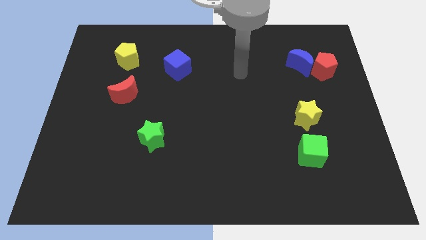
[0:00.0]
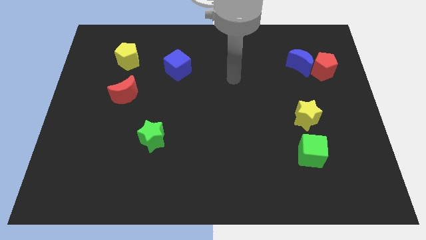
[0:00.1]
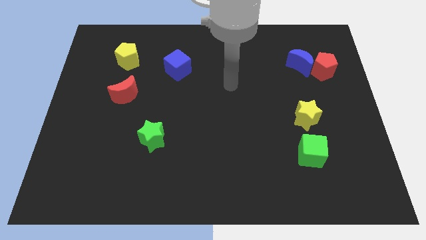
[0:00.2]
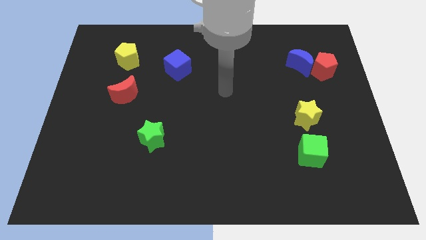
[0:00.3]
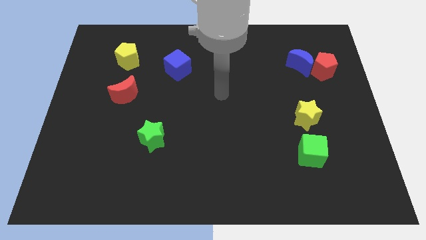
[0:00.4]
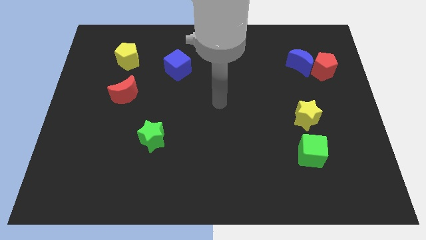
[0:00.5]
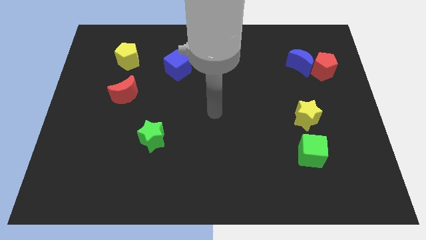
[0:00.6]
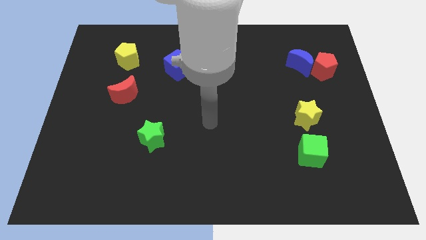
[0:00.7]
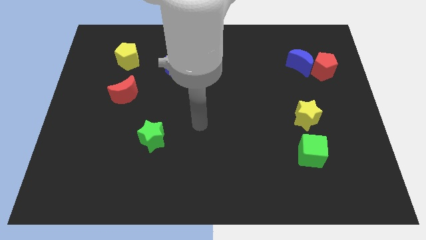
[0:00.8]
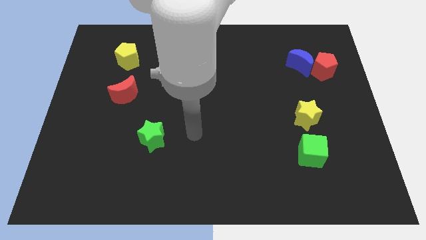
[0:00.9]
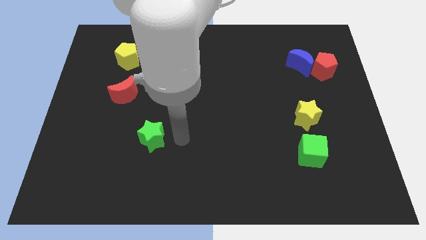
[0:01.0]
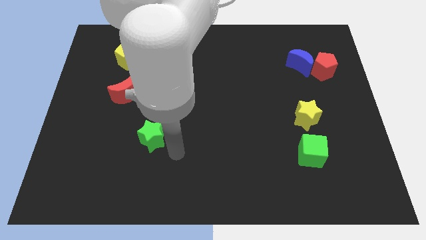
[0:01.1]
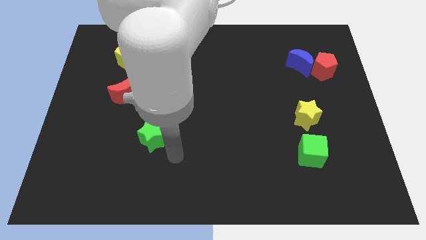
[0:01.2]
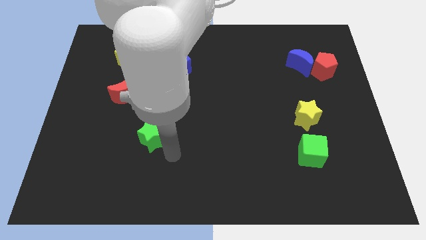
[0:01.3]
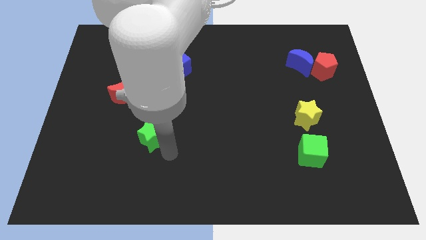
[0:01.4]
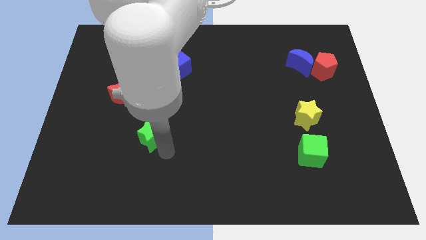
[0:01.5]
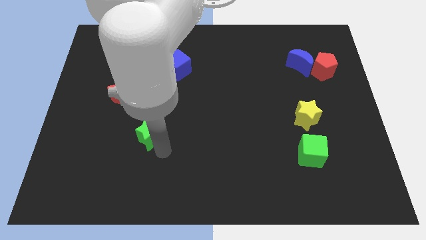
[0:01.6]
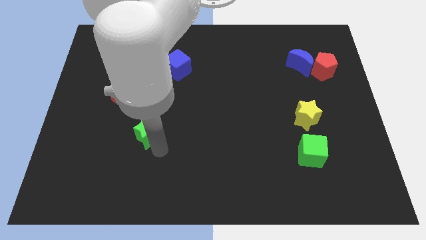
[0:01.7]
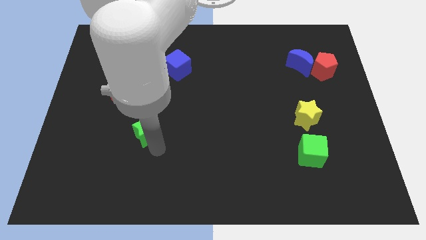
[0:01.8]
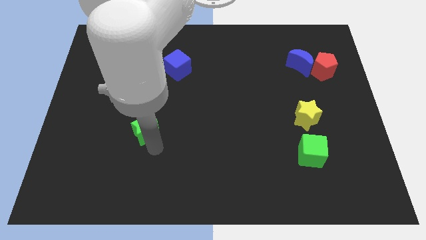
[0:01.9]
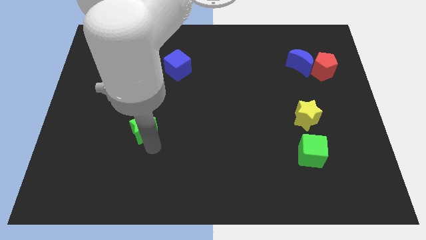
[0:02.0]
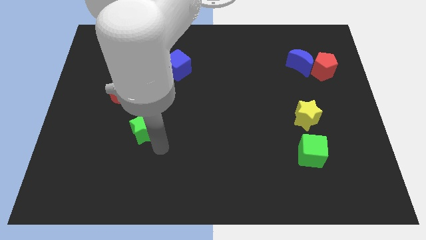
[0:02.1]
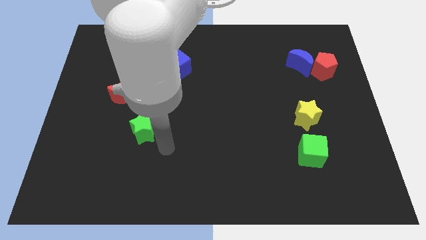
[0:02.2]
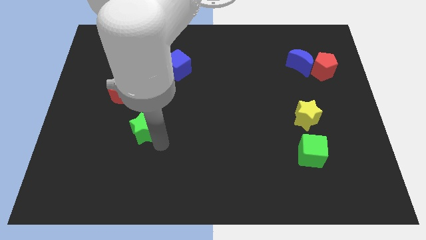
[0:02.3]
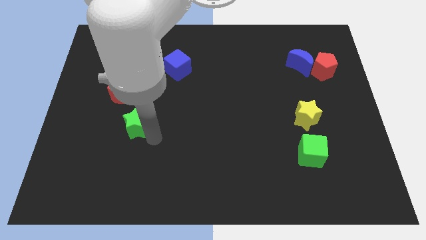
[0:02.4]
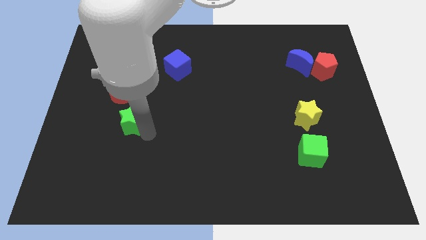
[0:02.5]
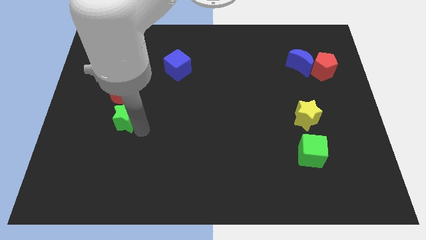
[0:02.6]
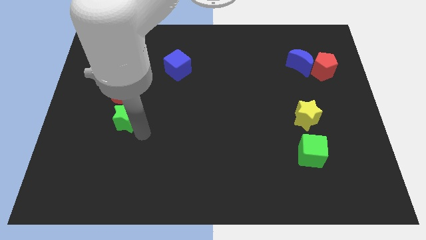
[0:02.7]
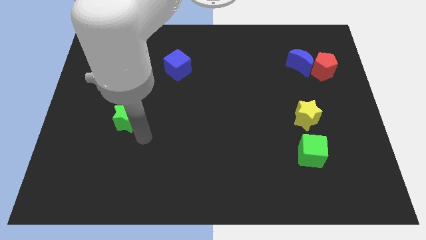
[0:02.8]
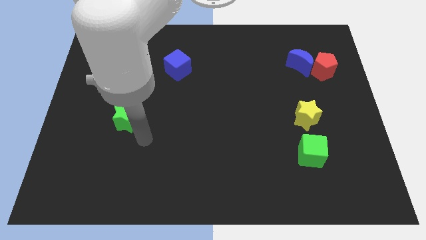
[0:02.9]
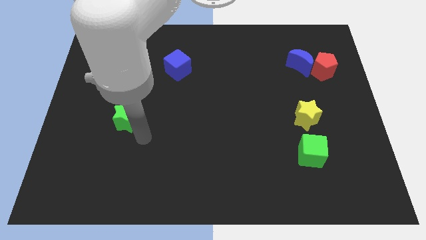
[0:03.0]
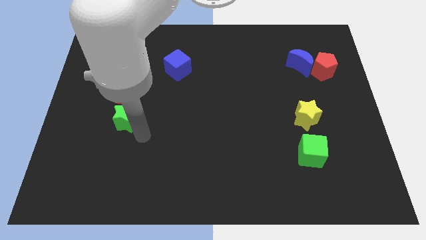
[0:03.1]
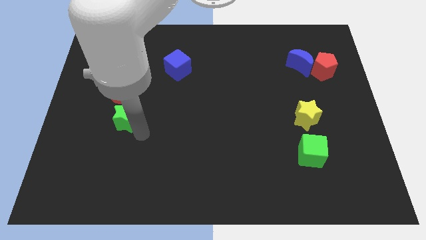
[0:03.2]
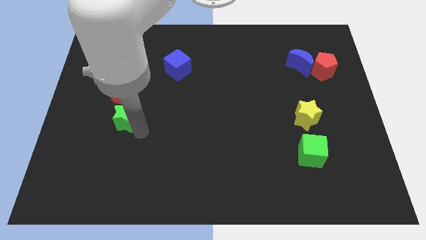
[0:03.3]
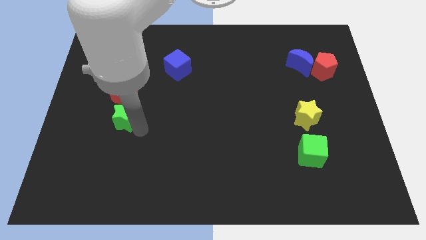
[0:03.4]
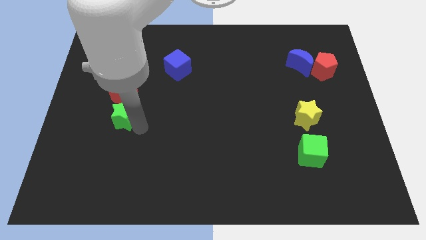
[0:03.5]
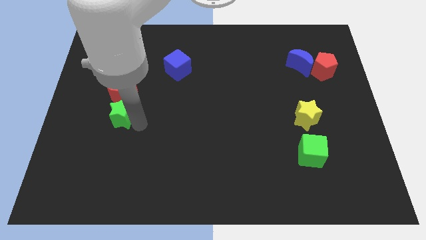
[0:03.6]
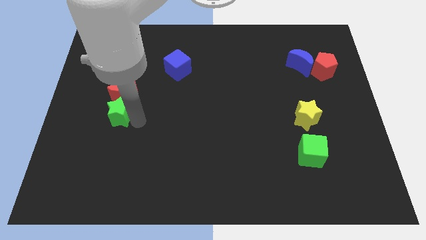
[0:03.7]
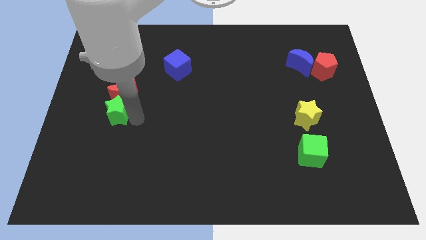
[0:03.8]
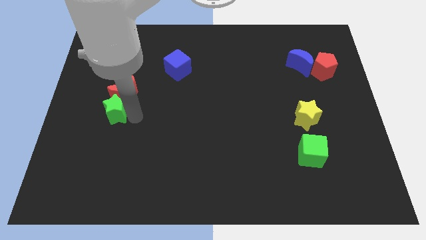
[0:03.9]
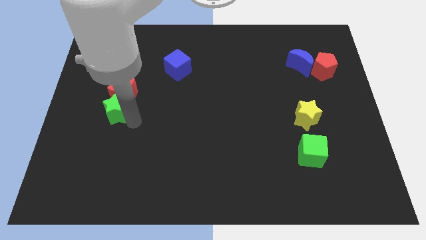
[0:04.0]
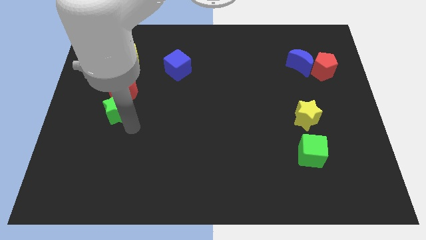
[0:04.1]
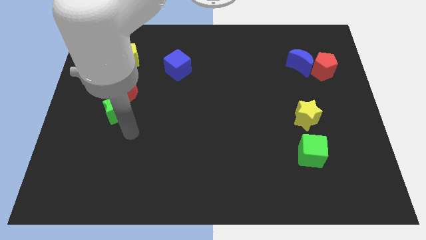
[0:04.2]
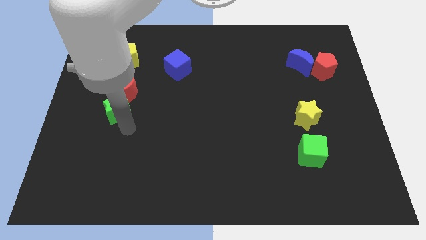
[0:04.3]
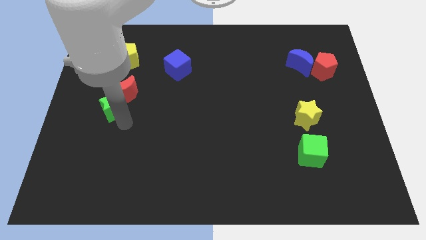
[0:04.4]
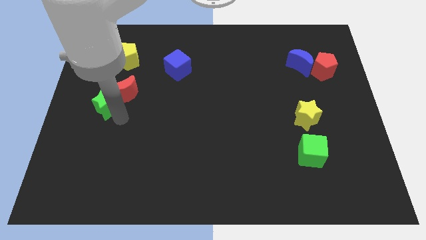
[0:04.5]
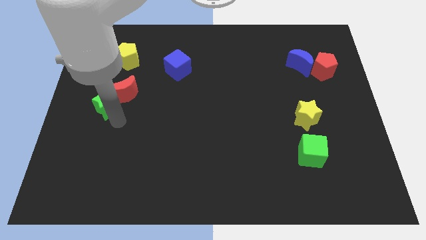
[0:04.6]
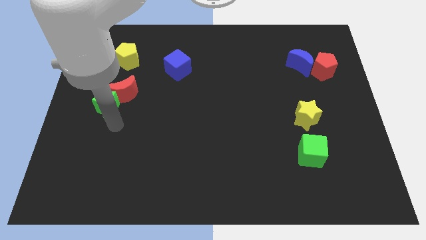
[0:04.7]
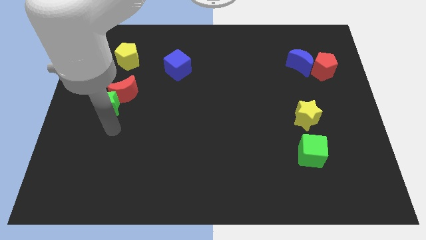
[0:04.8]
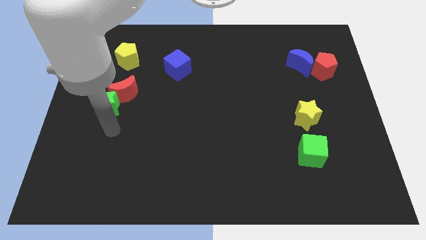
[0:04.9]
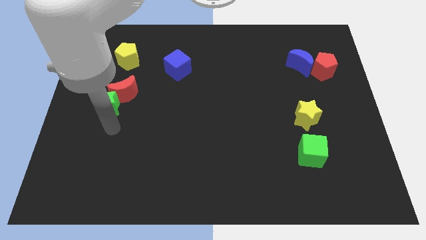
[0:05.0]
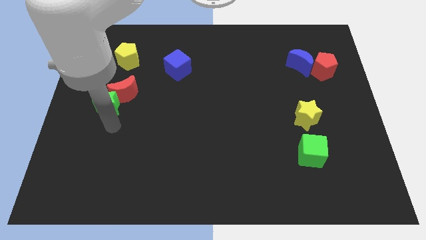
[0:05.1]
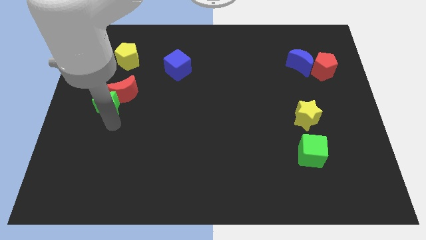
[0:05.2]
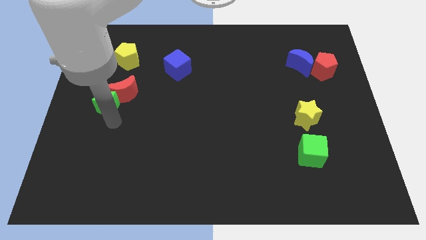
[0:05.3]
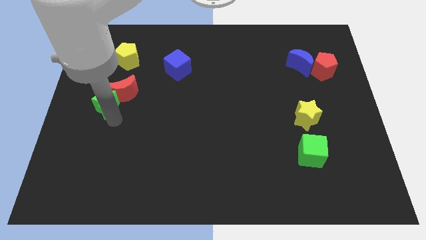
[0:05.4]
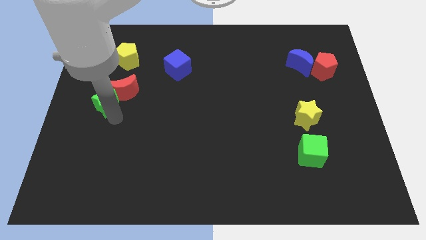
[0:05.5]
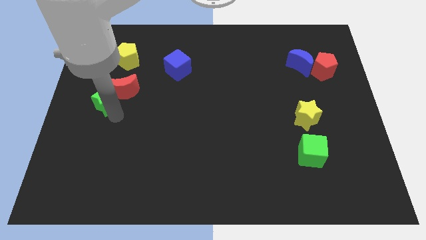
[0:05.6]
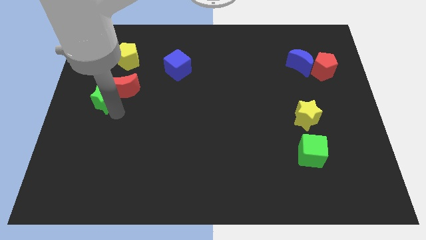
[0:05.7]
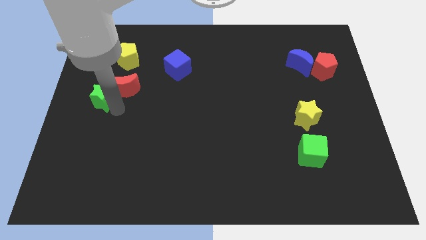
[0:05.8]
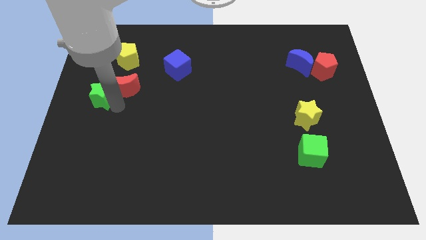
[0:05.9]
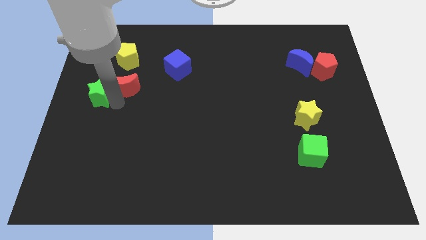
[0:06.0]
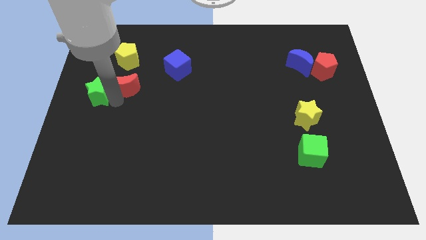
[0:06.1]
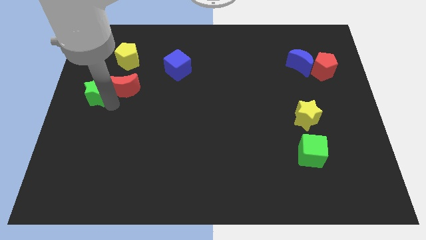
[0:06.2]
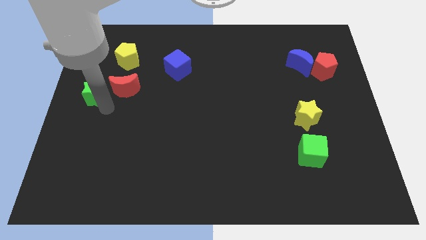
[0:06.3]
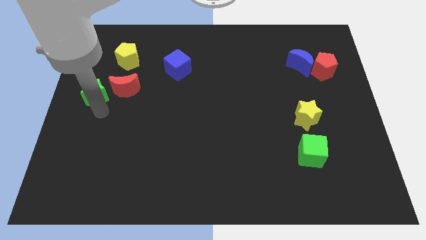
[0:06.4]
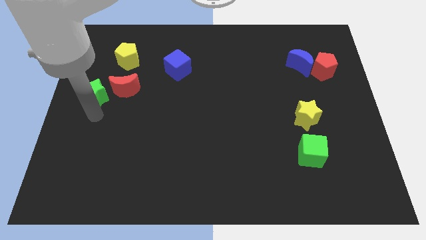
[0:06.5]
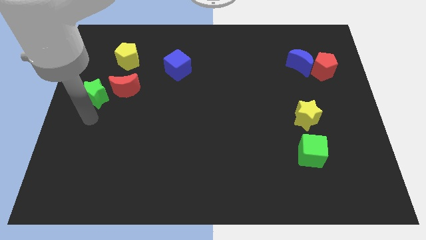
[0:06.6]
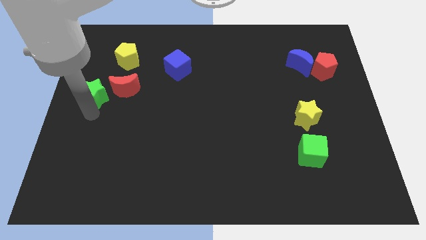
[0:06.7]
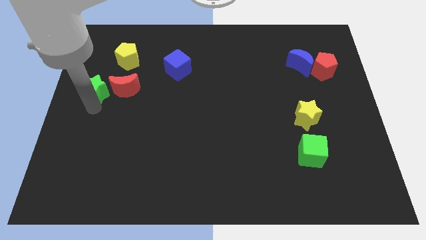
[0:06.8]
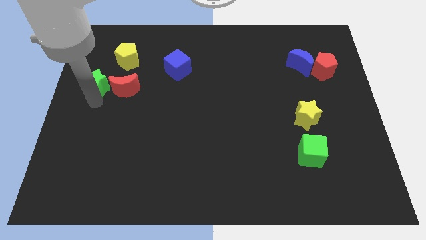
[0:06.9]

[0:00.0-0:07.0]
put the green star diagonally down and to the left of the yellow pentagon

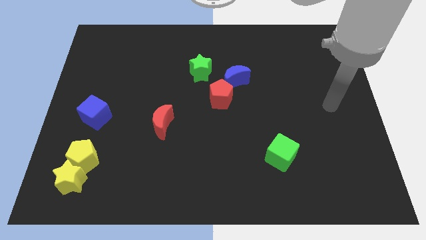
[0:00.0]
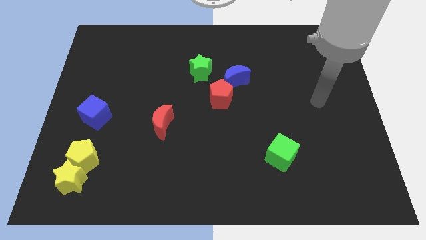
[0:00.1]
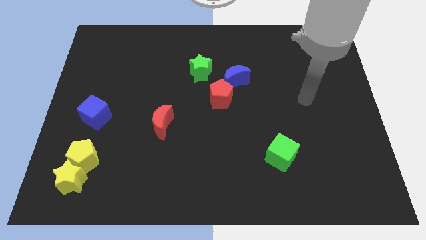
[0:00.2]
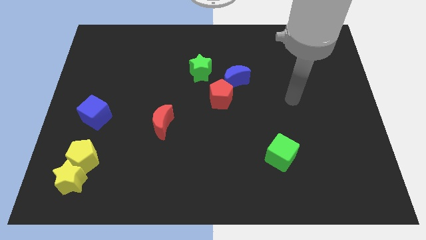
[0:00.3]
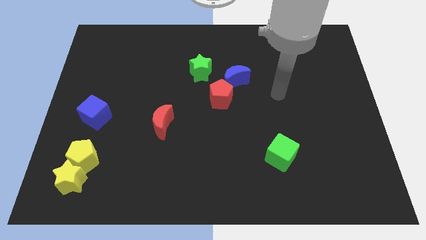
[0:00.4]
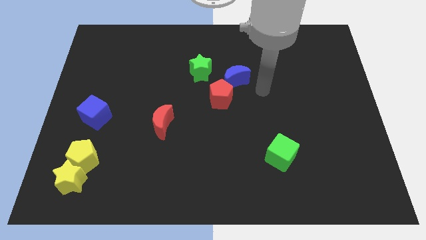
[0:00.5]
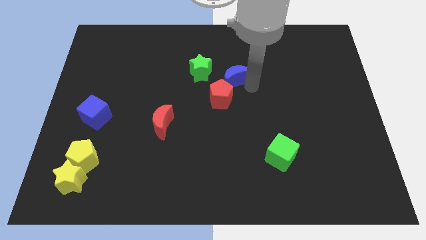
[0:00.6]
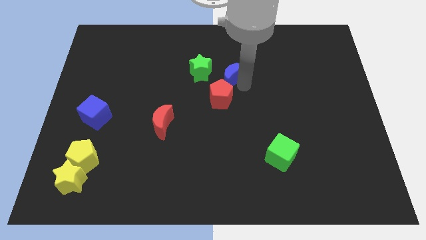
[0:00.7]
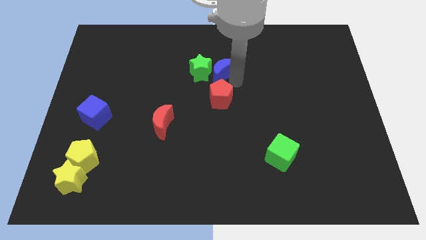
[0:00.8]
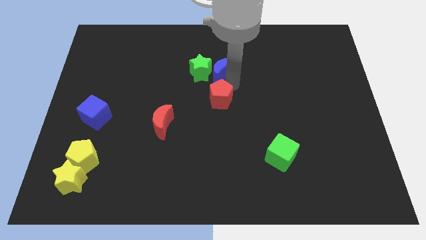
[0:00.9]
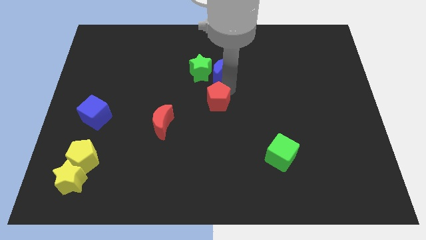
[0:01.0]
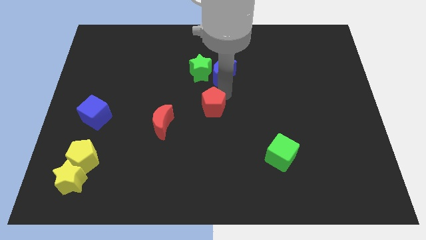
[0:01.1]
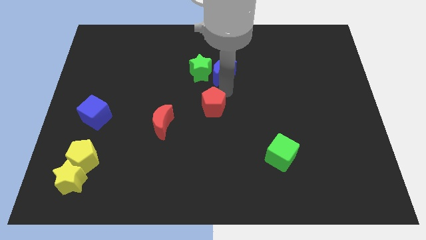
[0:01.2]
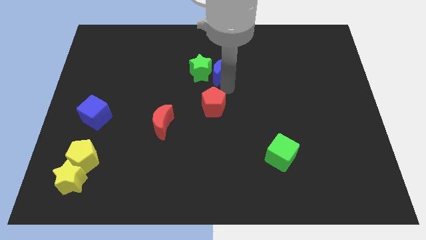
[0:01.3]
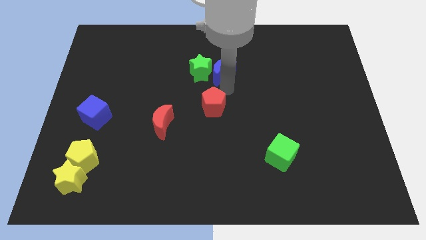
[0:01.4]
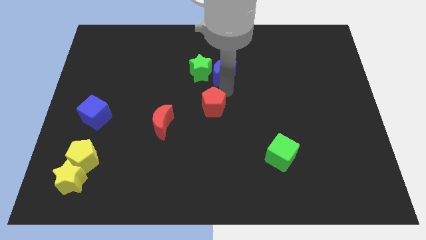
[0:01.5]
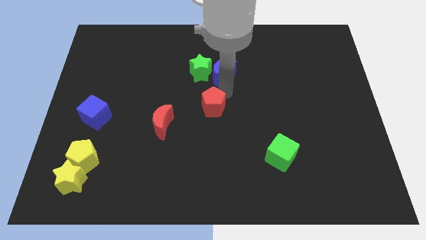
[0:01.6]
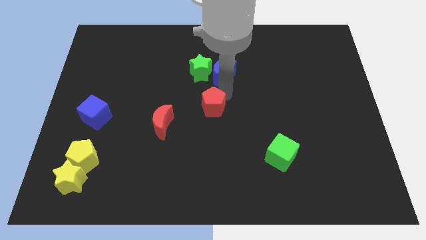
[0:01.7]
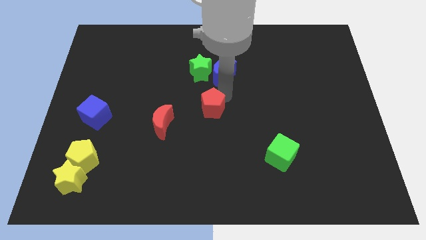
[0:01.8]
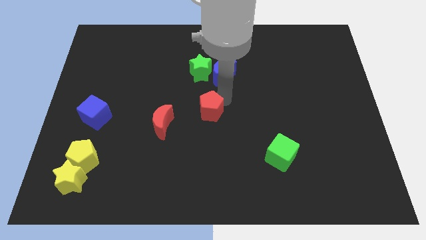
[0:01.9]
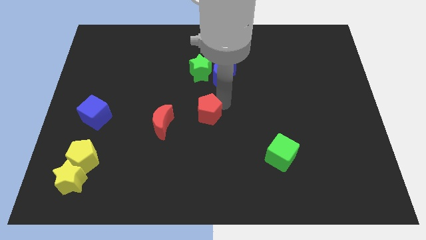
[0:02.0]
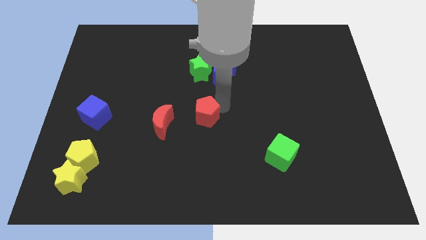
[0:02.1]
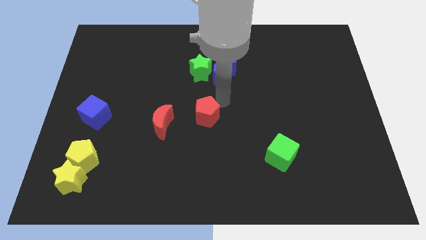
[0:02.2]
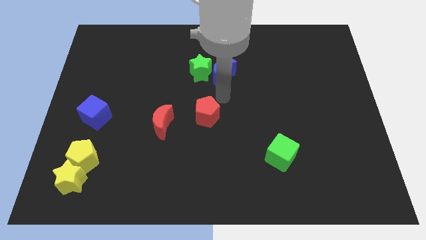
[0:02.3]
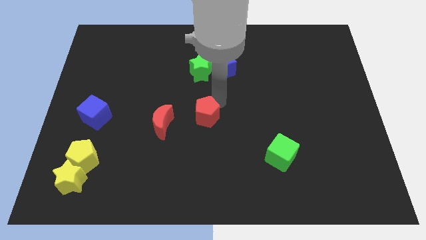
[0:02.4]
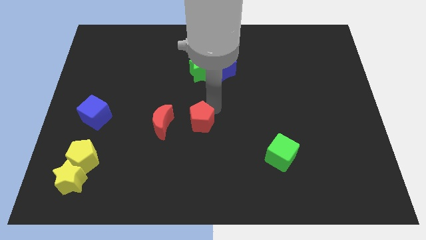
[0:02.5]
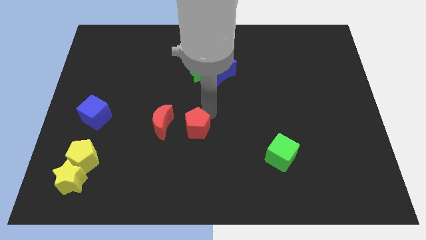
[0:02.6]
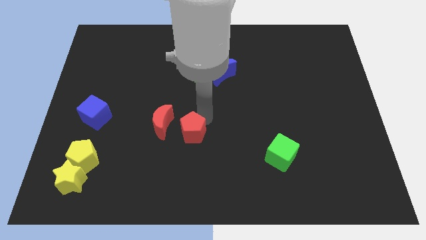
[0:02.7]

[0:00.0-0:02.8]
slide the red pentagon to the bottom right of the red moon
